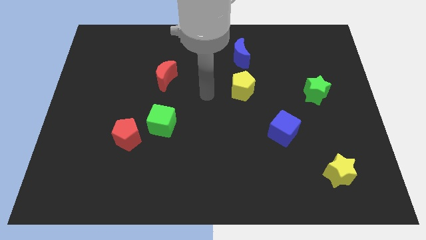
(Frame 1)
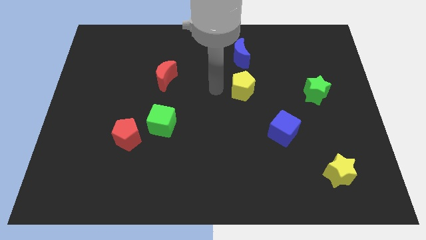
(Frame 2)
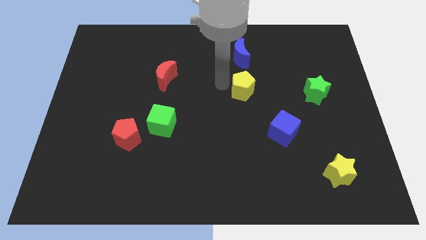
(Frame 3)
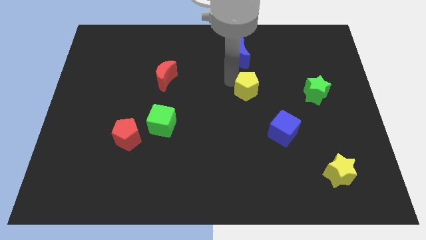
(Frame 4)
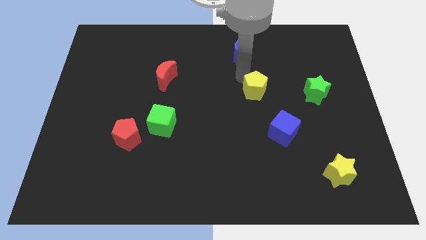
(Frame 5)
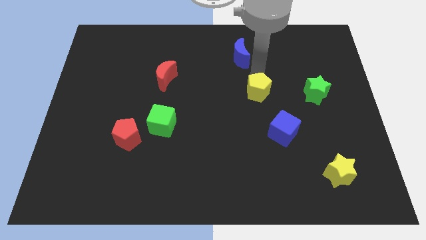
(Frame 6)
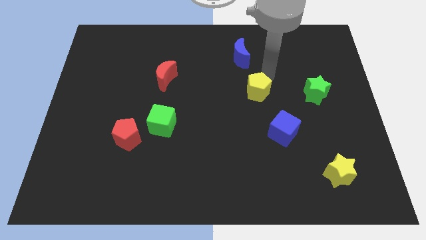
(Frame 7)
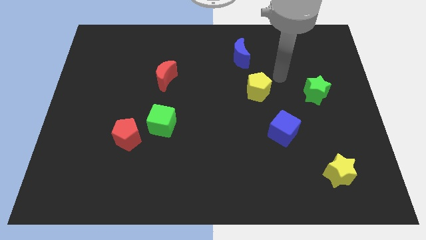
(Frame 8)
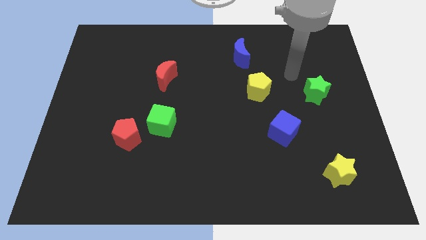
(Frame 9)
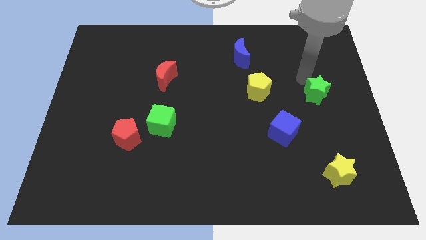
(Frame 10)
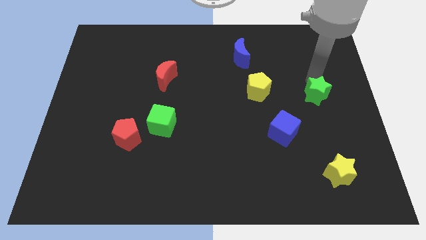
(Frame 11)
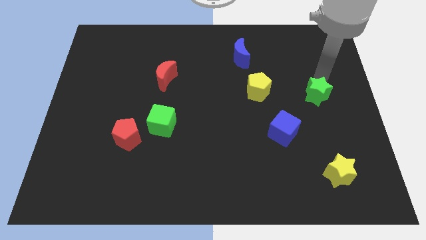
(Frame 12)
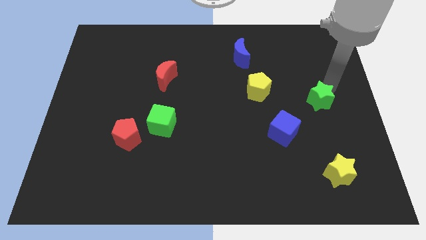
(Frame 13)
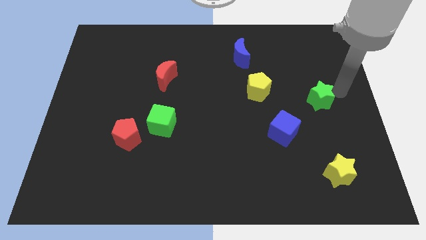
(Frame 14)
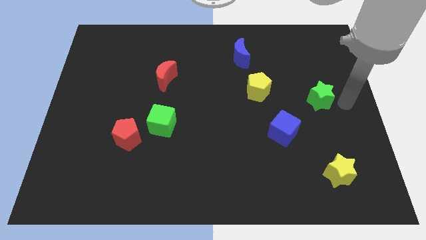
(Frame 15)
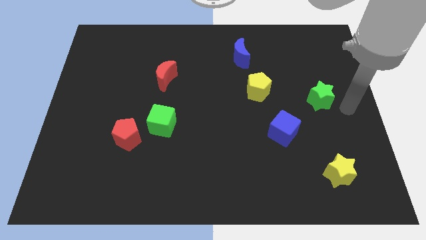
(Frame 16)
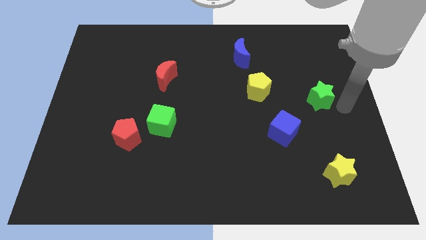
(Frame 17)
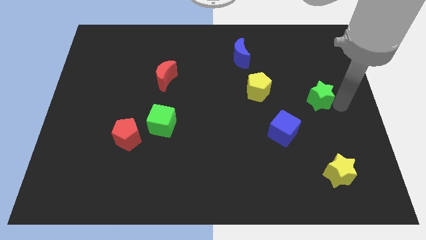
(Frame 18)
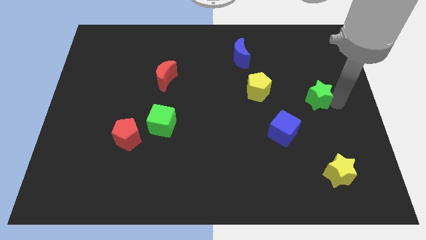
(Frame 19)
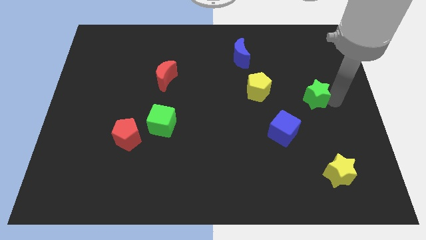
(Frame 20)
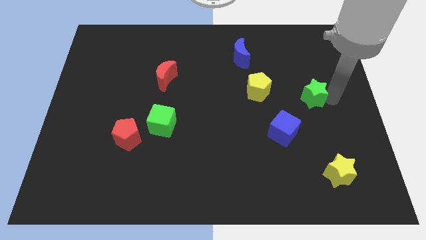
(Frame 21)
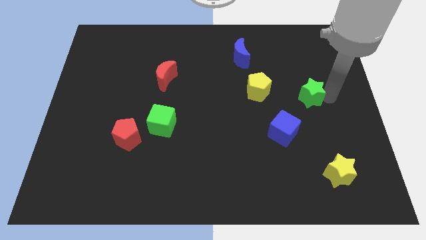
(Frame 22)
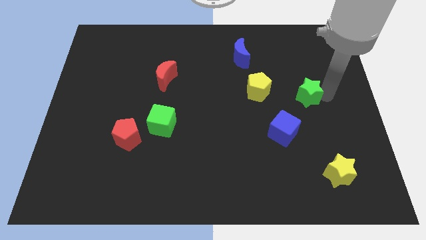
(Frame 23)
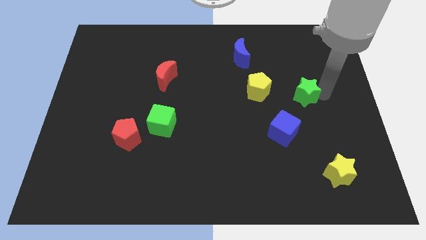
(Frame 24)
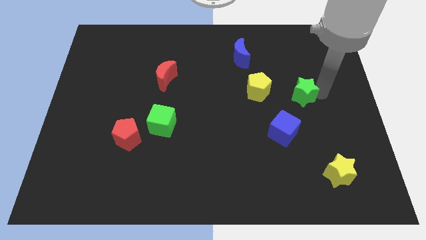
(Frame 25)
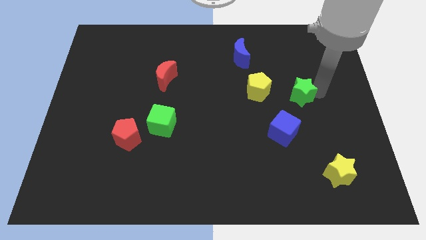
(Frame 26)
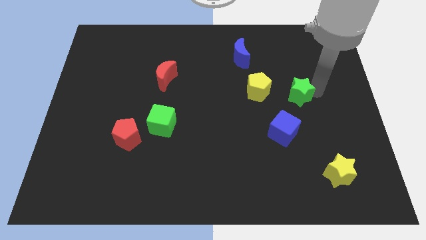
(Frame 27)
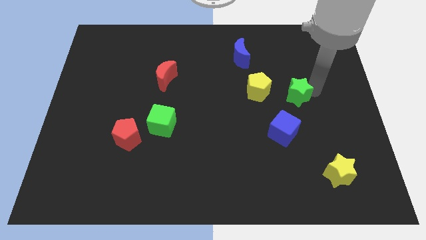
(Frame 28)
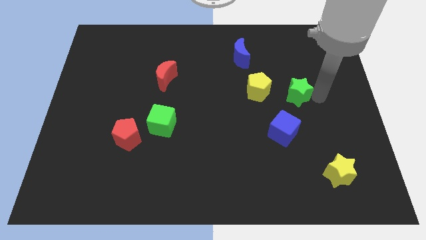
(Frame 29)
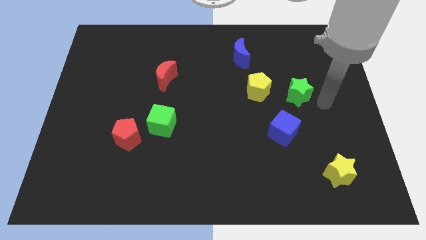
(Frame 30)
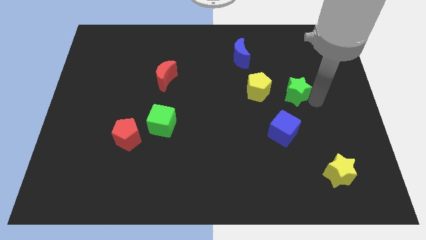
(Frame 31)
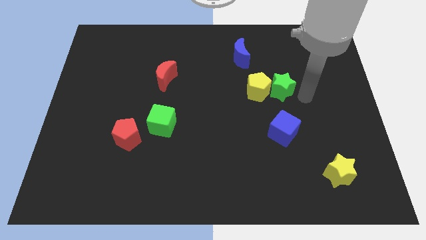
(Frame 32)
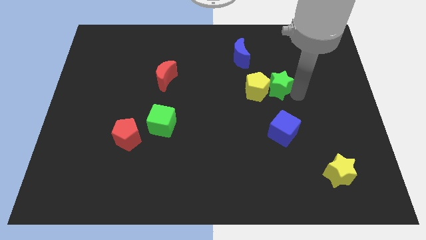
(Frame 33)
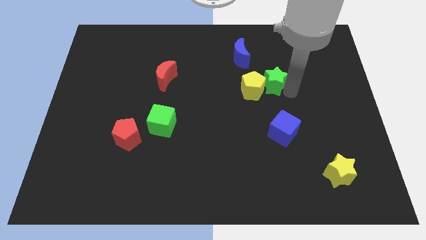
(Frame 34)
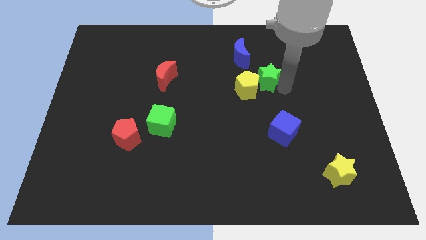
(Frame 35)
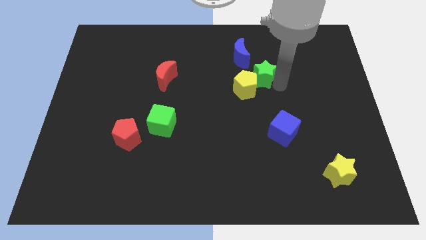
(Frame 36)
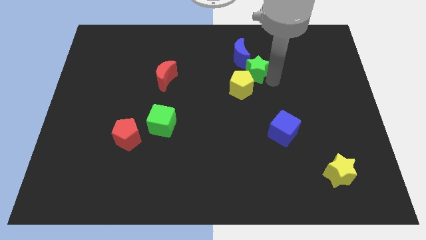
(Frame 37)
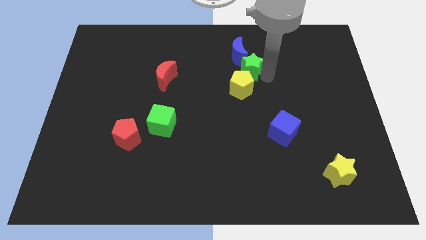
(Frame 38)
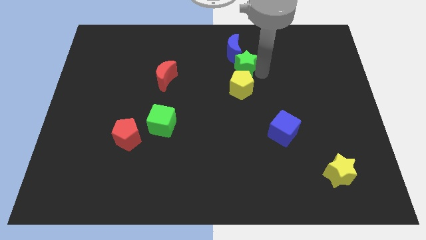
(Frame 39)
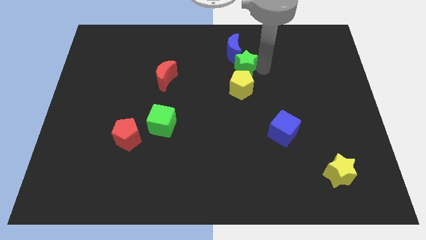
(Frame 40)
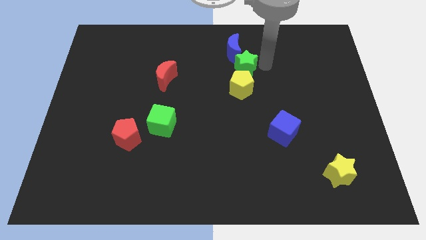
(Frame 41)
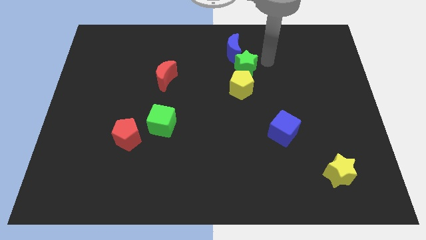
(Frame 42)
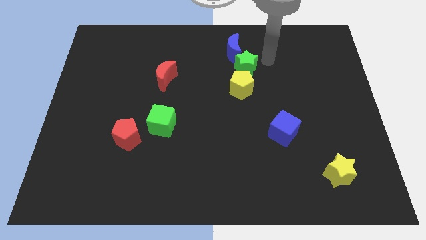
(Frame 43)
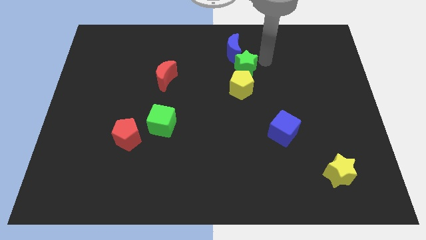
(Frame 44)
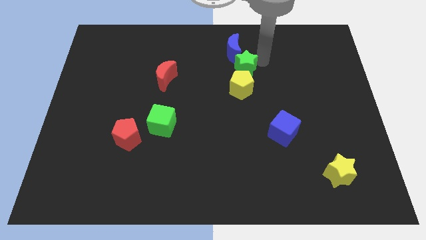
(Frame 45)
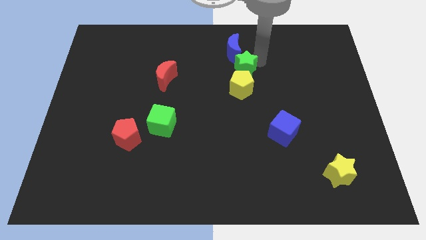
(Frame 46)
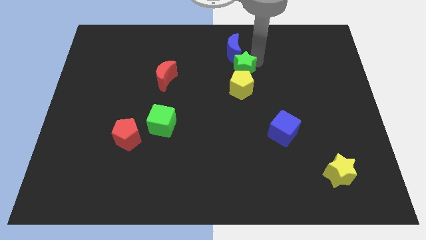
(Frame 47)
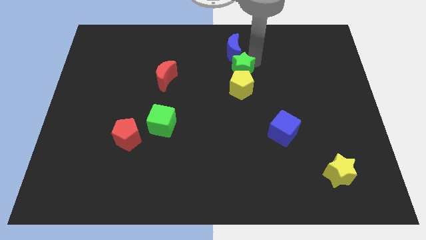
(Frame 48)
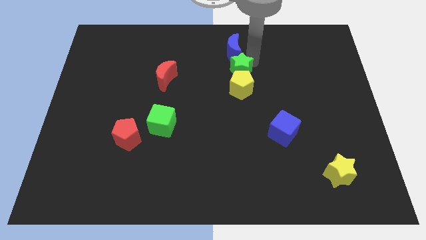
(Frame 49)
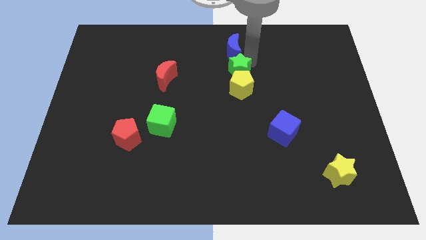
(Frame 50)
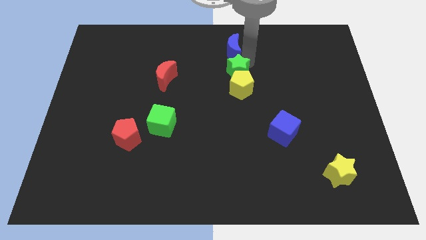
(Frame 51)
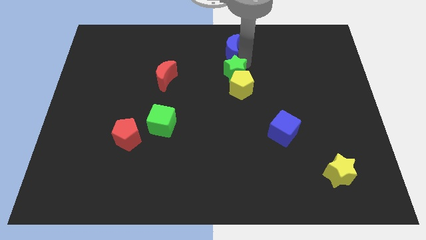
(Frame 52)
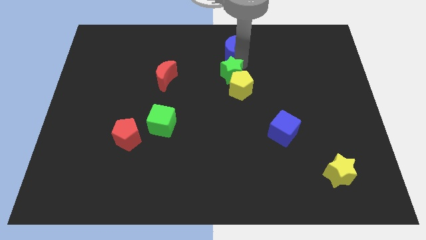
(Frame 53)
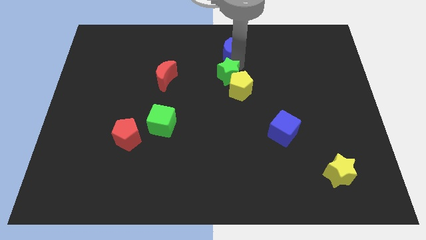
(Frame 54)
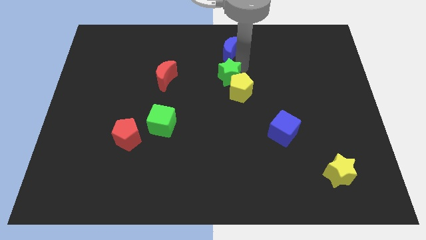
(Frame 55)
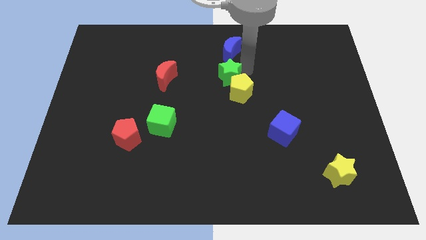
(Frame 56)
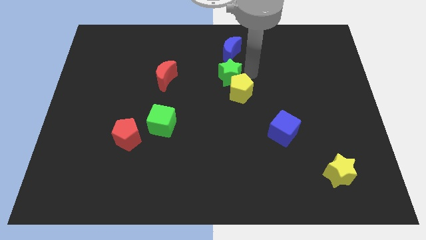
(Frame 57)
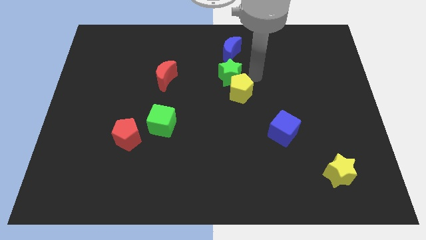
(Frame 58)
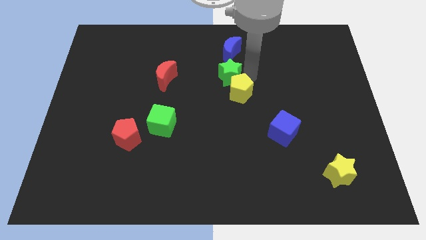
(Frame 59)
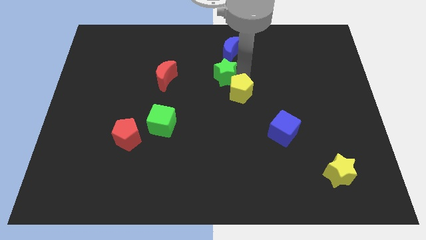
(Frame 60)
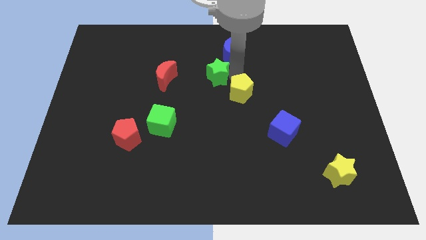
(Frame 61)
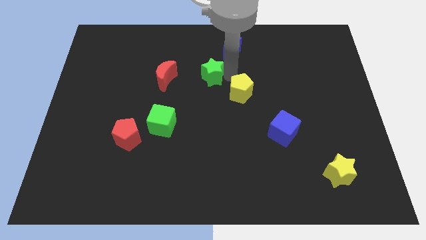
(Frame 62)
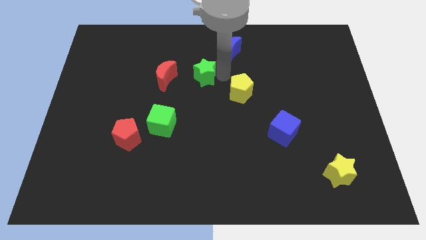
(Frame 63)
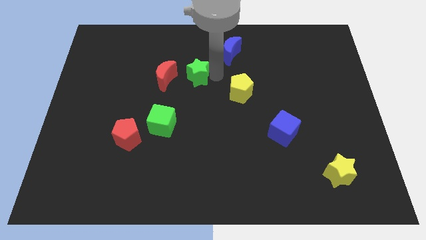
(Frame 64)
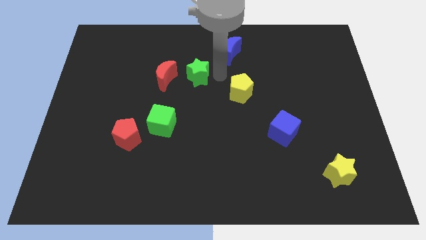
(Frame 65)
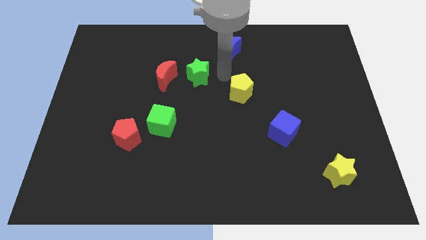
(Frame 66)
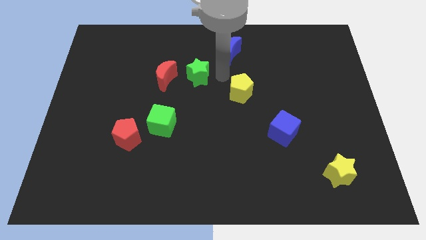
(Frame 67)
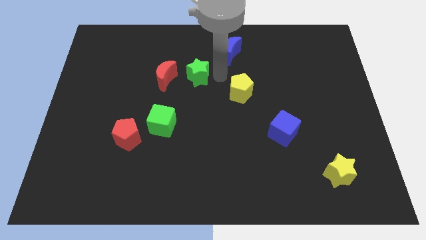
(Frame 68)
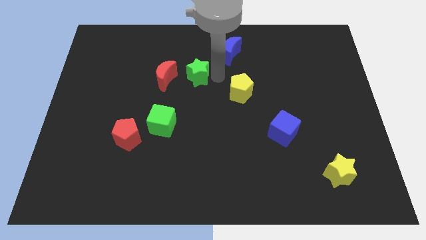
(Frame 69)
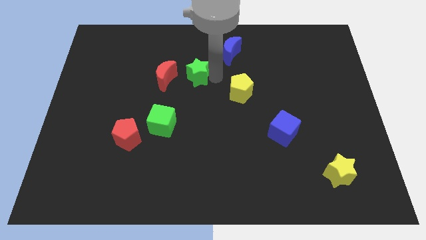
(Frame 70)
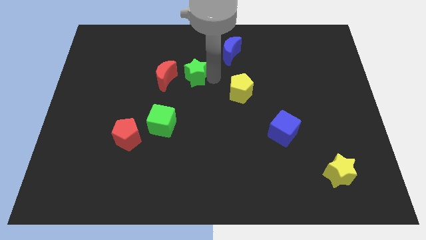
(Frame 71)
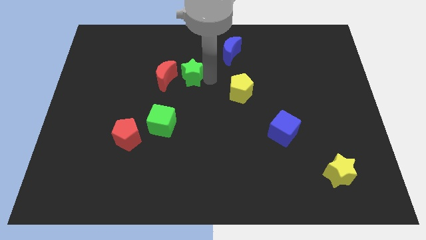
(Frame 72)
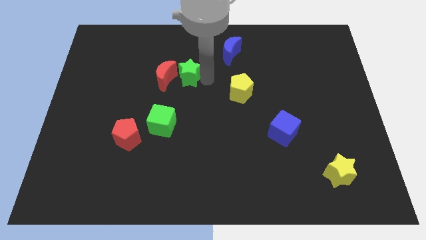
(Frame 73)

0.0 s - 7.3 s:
move the green star towards the red moon

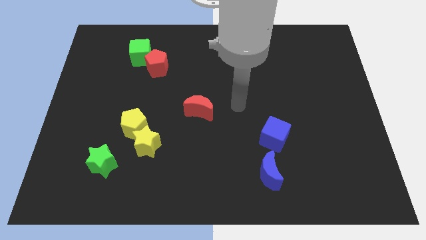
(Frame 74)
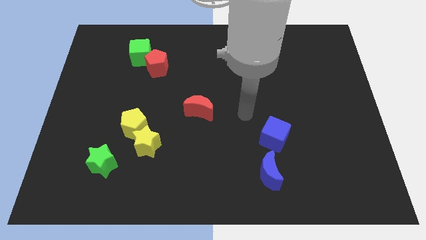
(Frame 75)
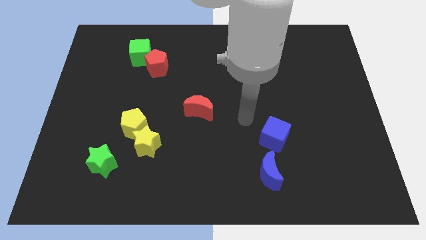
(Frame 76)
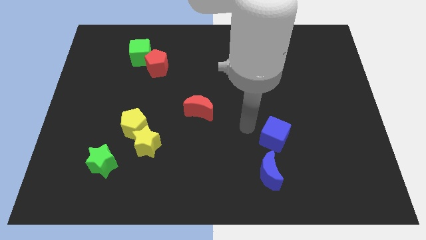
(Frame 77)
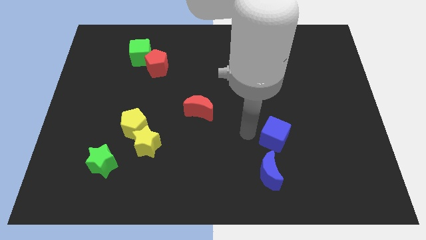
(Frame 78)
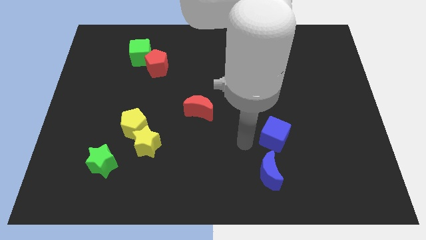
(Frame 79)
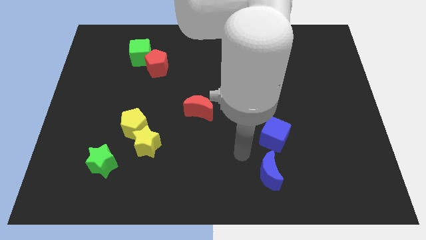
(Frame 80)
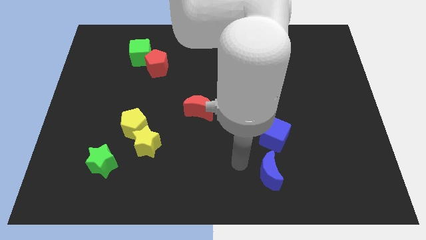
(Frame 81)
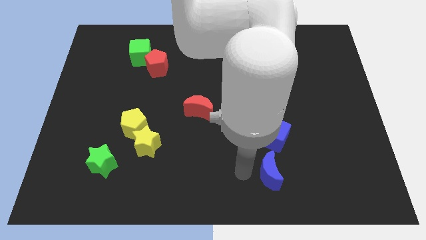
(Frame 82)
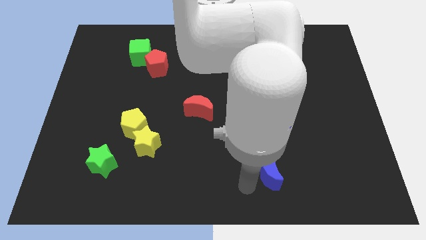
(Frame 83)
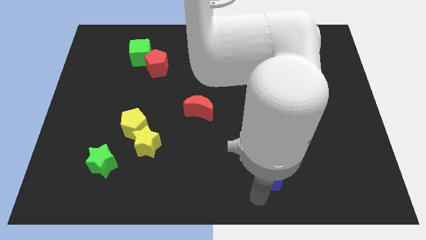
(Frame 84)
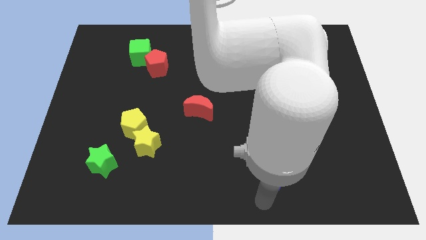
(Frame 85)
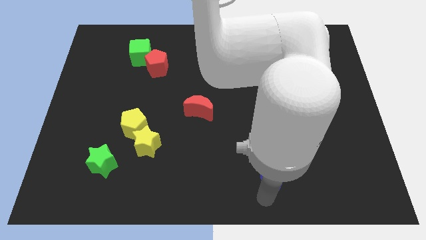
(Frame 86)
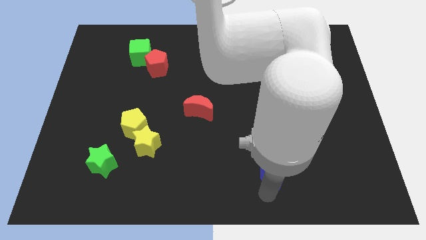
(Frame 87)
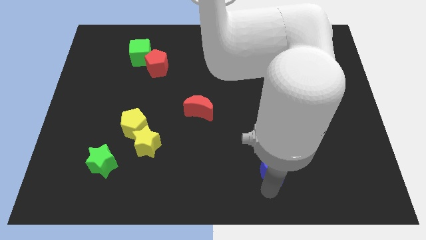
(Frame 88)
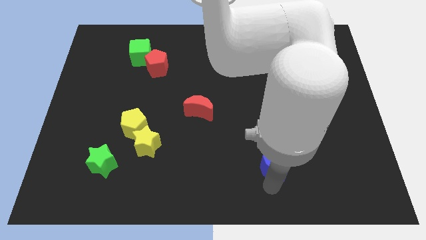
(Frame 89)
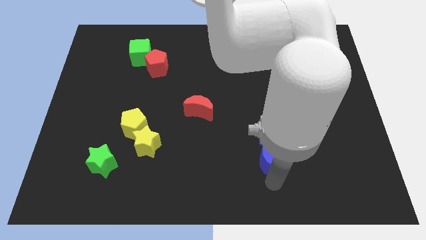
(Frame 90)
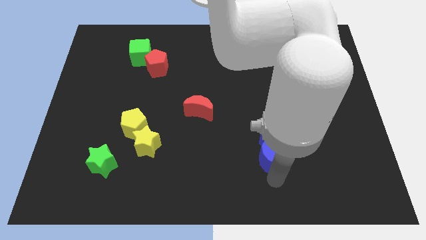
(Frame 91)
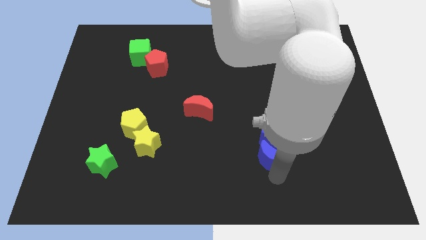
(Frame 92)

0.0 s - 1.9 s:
slide the blue moon next to the blue cube
